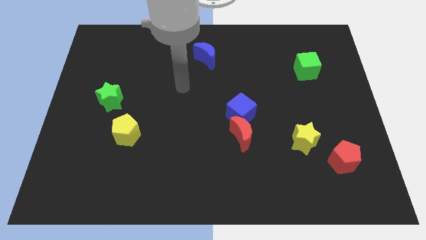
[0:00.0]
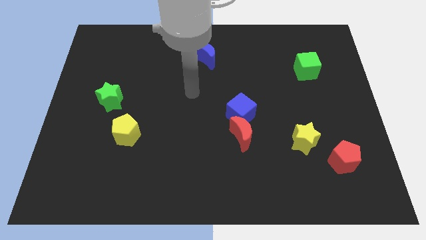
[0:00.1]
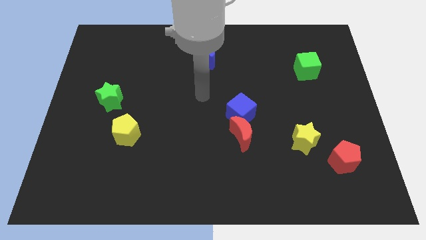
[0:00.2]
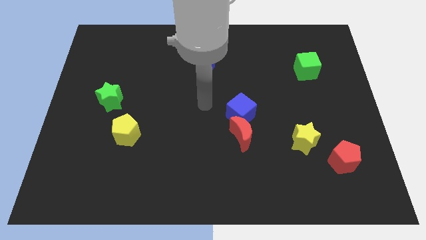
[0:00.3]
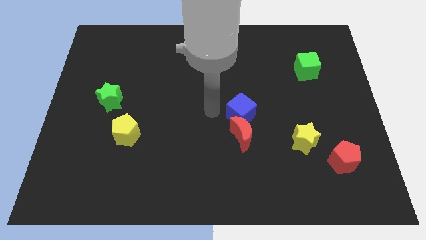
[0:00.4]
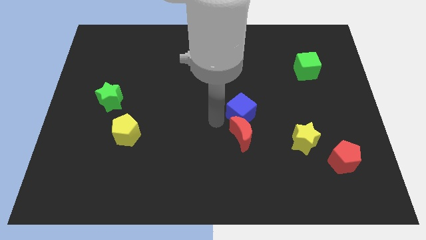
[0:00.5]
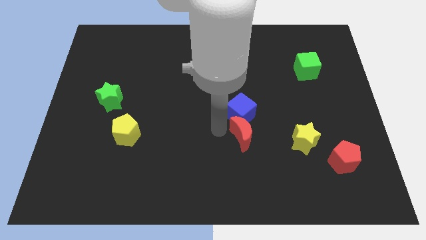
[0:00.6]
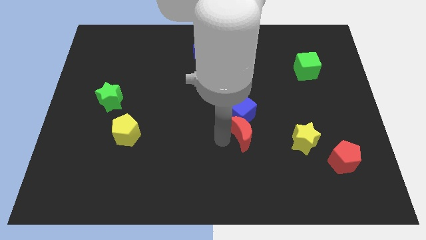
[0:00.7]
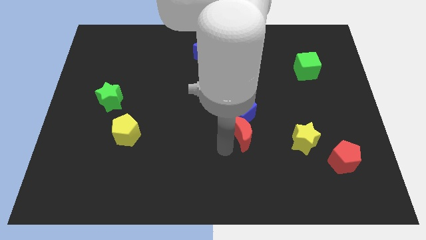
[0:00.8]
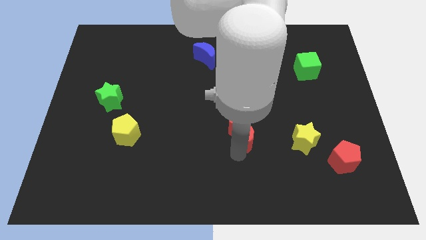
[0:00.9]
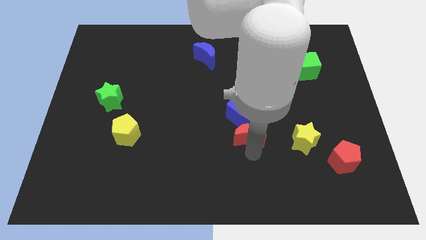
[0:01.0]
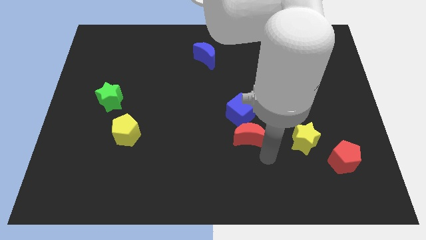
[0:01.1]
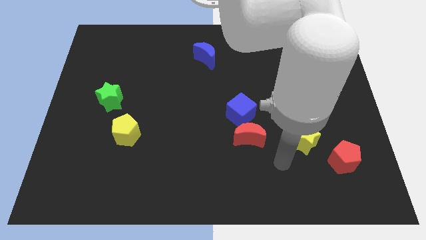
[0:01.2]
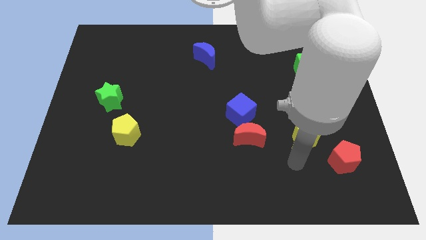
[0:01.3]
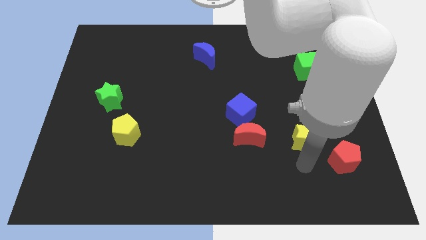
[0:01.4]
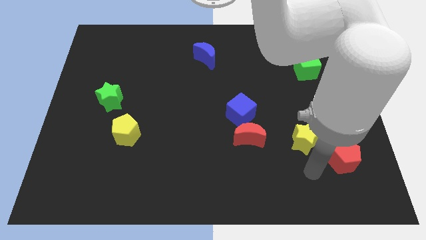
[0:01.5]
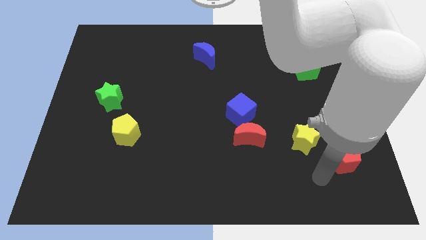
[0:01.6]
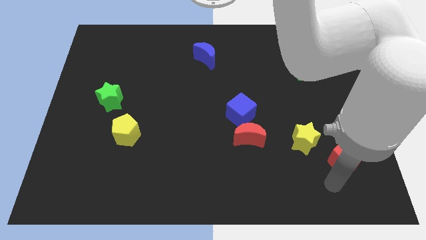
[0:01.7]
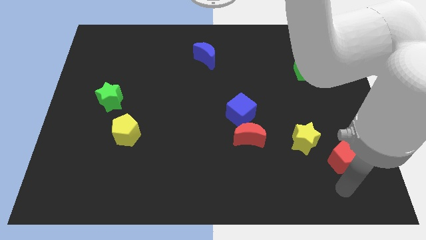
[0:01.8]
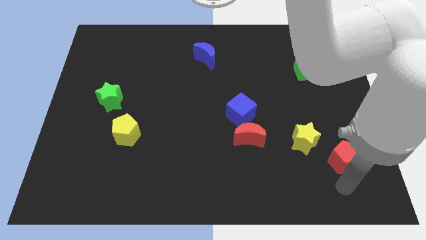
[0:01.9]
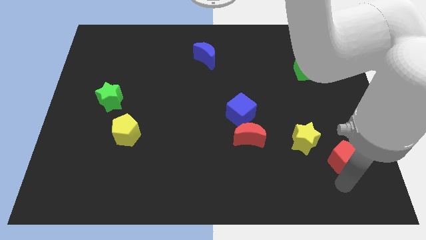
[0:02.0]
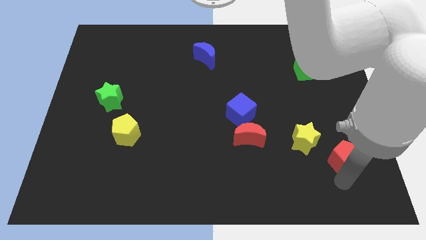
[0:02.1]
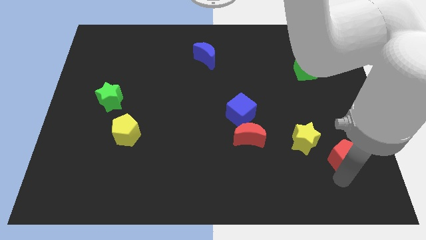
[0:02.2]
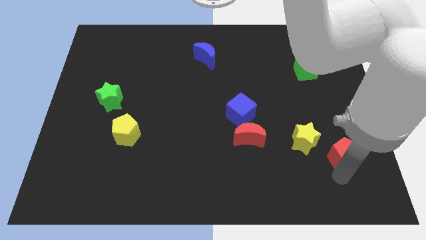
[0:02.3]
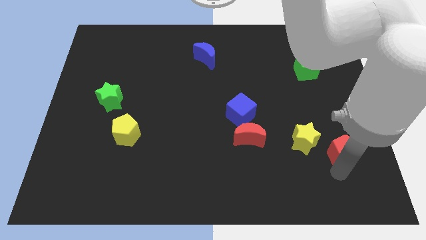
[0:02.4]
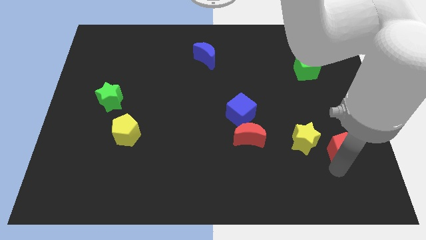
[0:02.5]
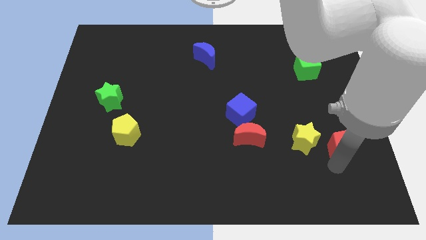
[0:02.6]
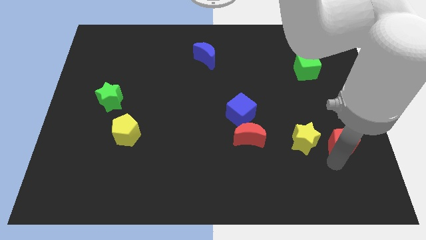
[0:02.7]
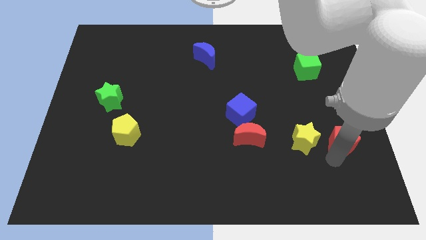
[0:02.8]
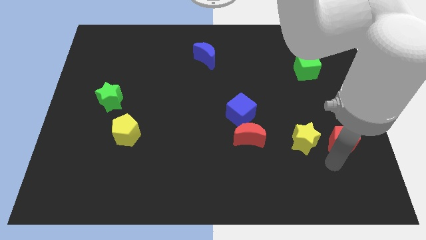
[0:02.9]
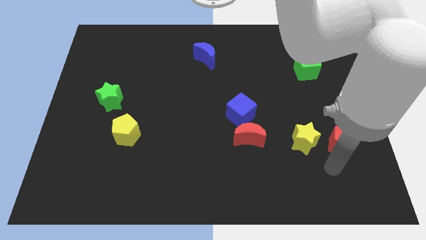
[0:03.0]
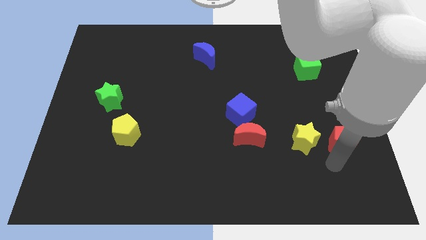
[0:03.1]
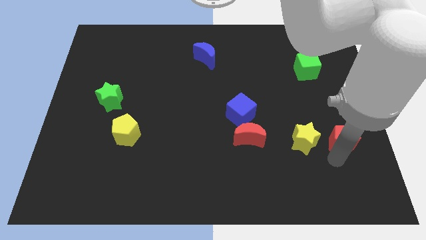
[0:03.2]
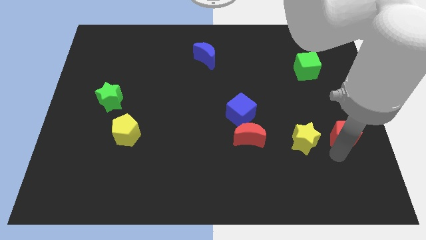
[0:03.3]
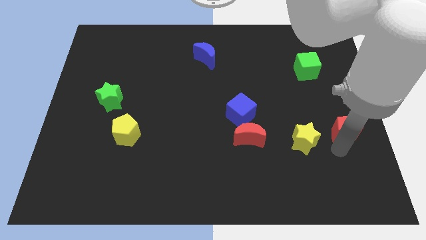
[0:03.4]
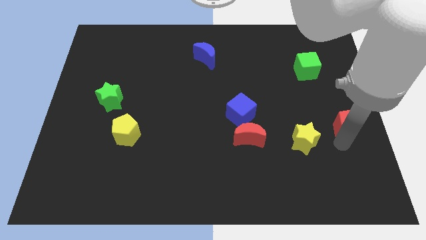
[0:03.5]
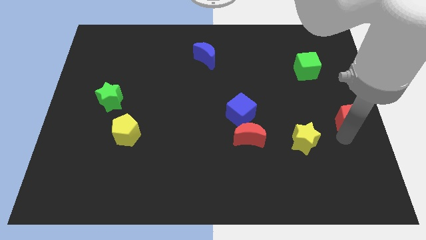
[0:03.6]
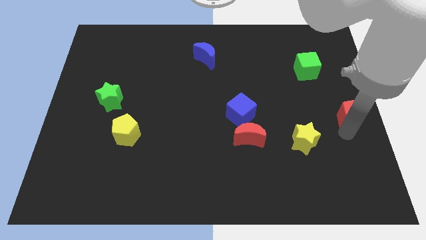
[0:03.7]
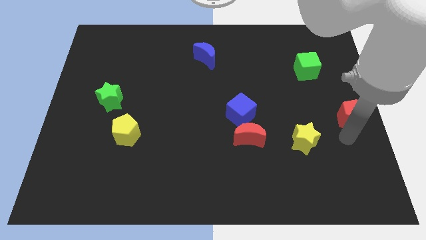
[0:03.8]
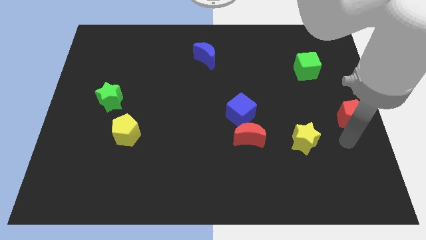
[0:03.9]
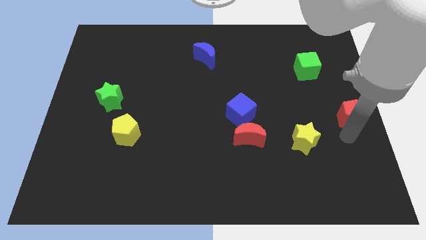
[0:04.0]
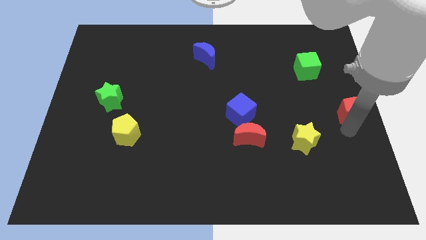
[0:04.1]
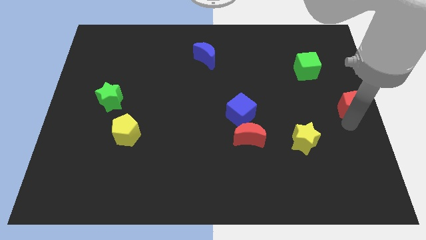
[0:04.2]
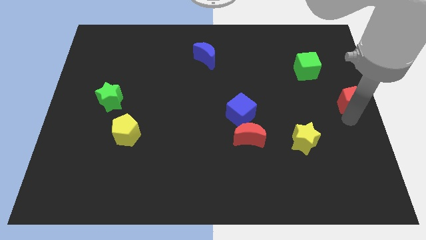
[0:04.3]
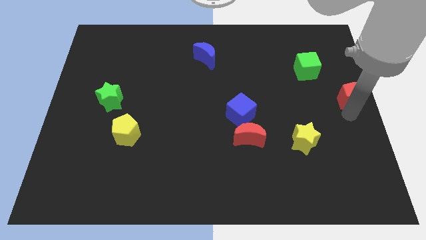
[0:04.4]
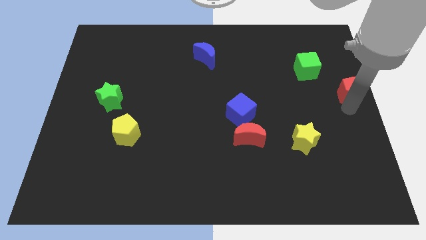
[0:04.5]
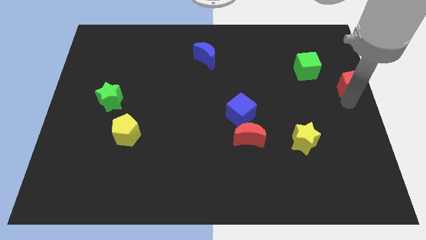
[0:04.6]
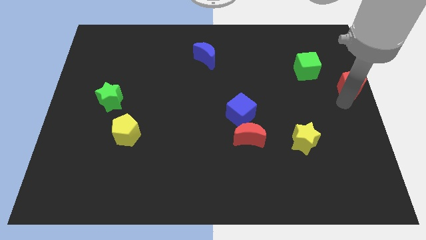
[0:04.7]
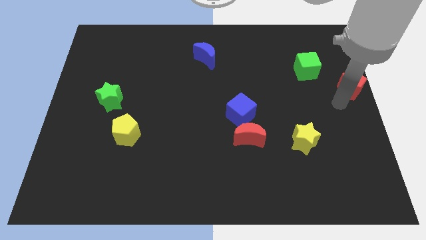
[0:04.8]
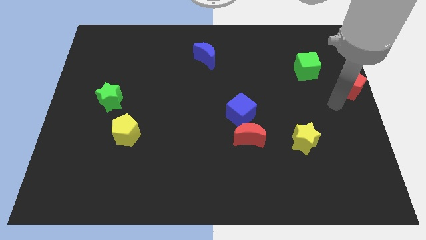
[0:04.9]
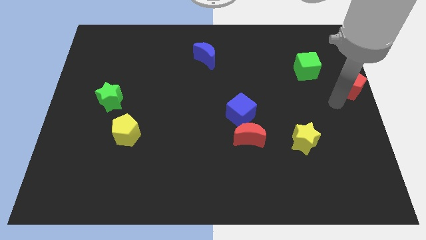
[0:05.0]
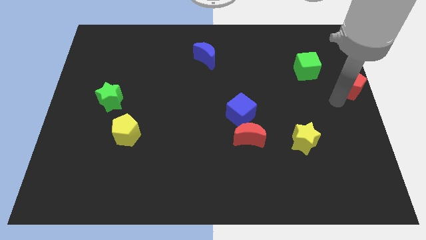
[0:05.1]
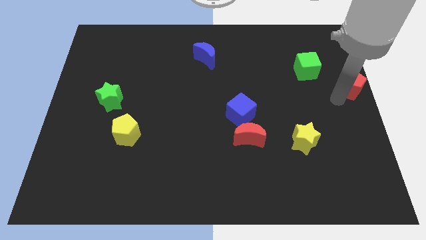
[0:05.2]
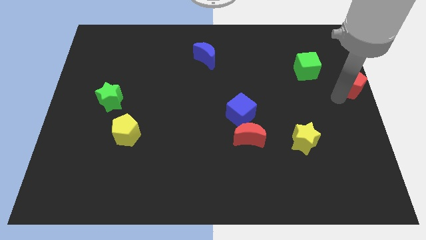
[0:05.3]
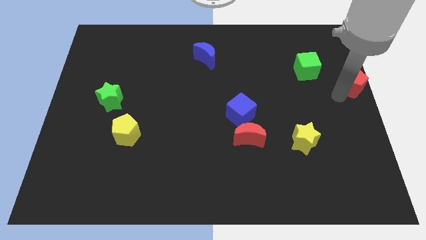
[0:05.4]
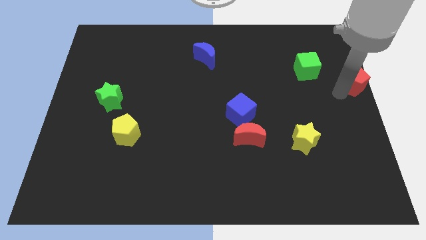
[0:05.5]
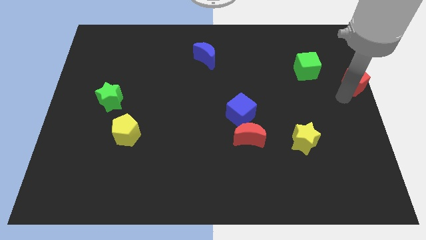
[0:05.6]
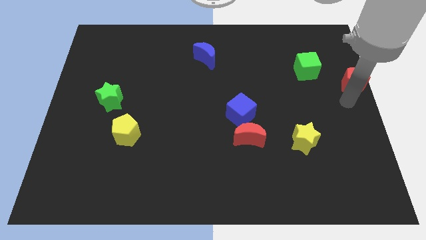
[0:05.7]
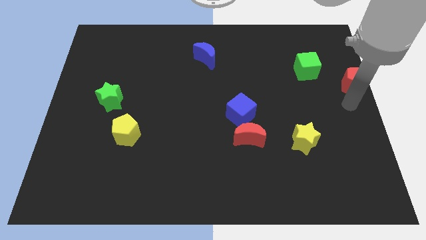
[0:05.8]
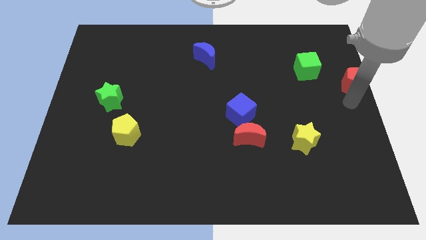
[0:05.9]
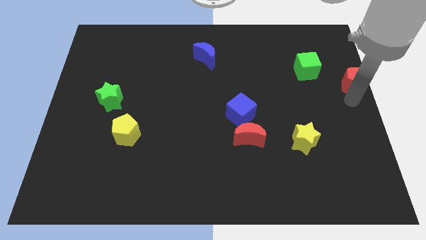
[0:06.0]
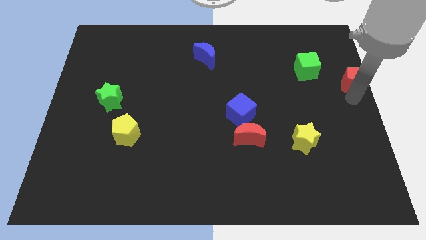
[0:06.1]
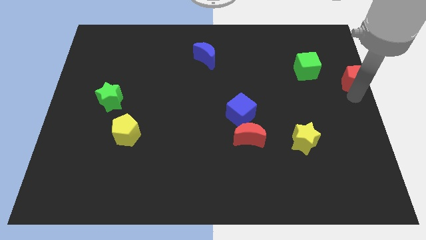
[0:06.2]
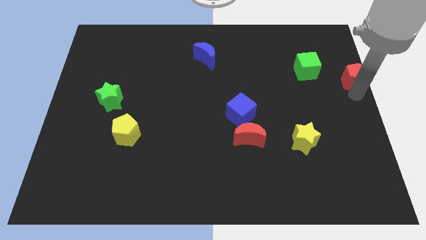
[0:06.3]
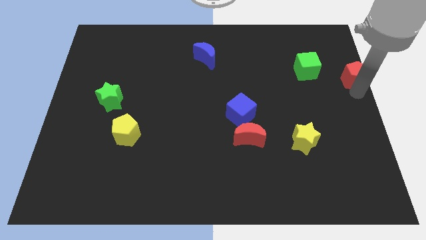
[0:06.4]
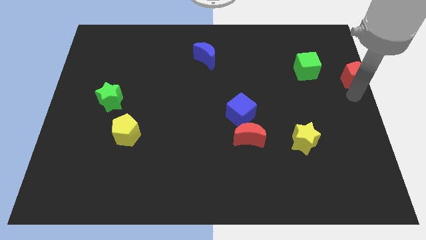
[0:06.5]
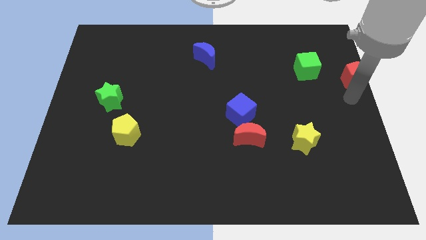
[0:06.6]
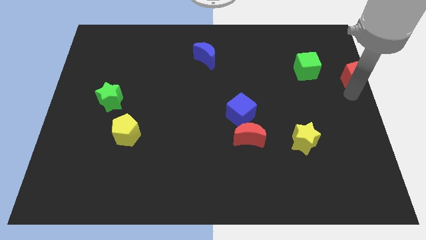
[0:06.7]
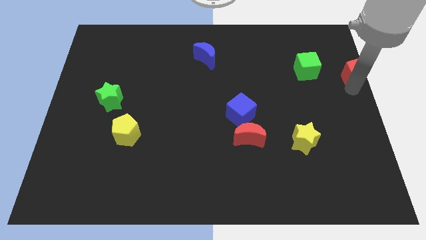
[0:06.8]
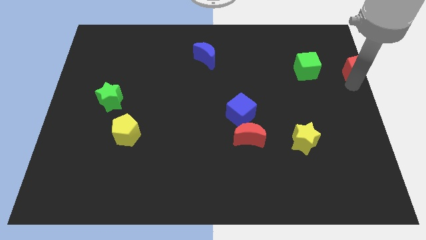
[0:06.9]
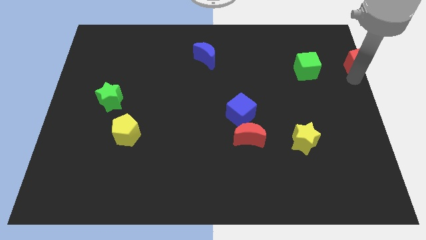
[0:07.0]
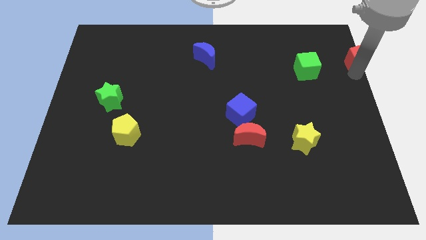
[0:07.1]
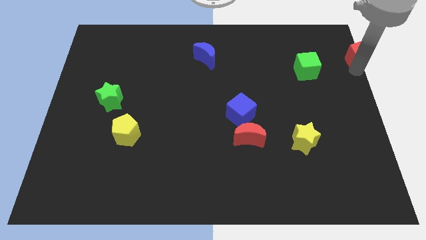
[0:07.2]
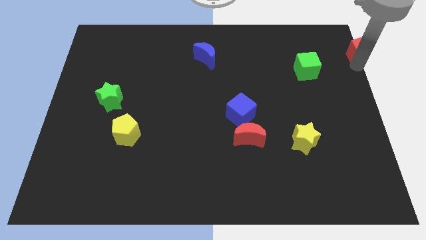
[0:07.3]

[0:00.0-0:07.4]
slide the red pentagon to the top right of the board
